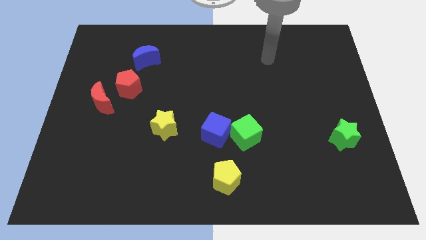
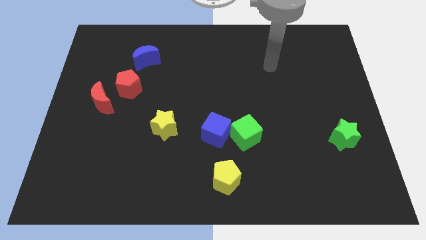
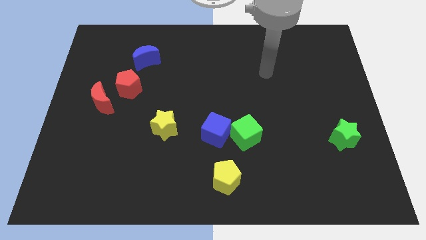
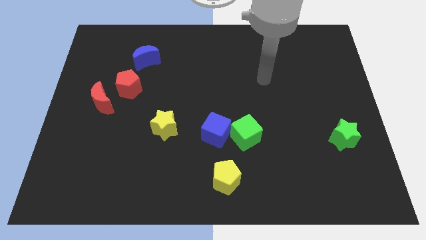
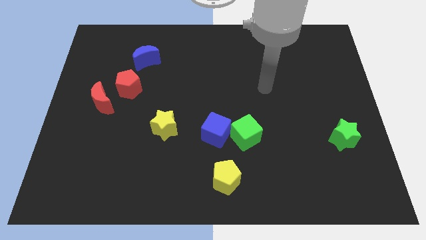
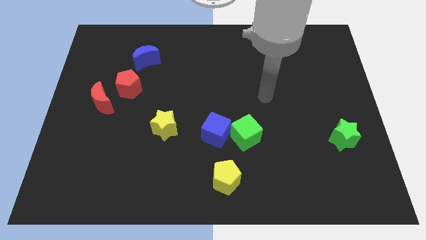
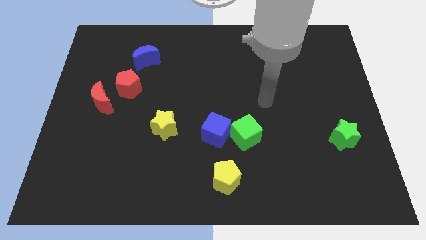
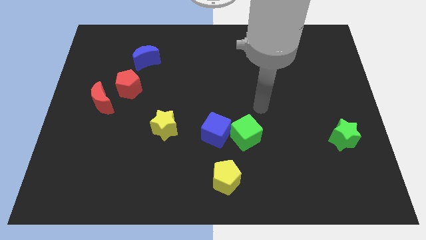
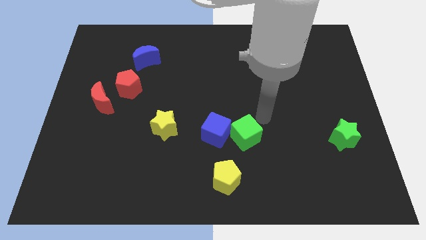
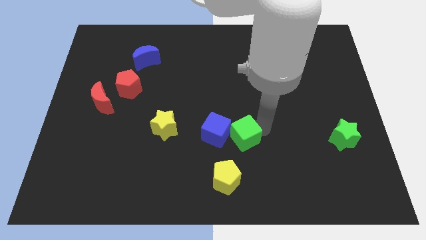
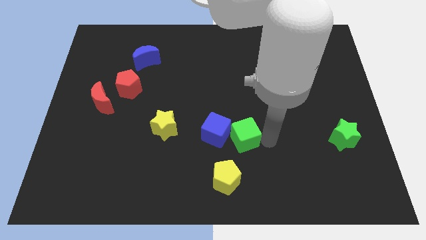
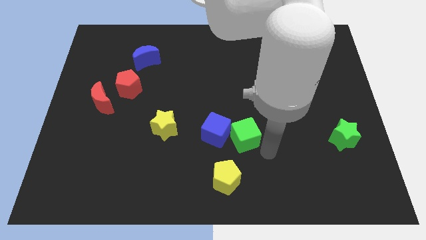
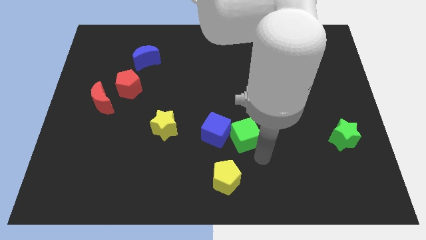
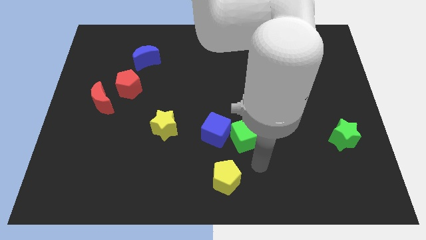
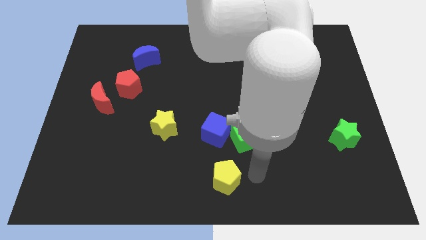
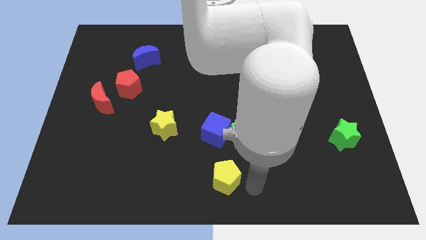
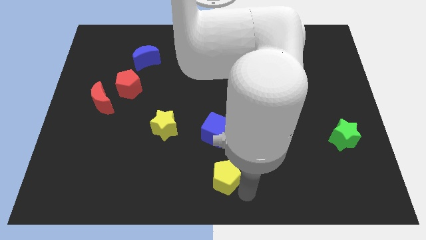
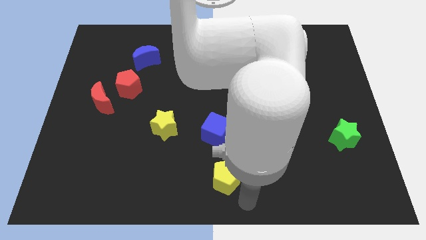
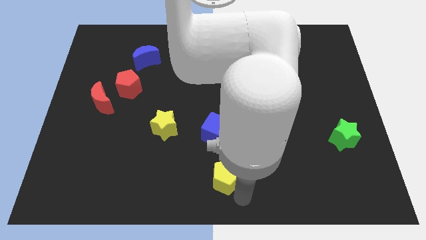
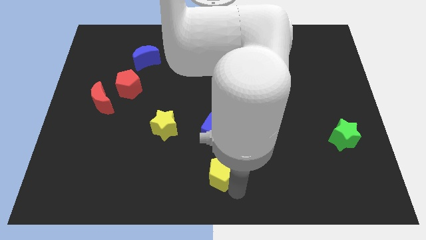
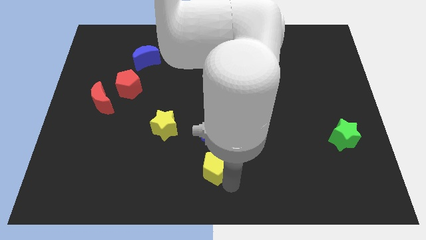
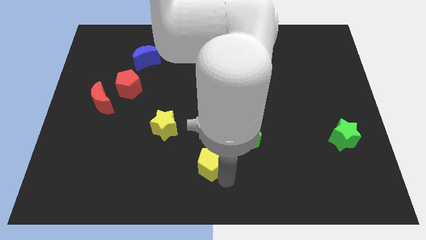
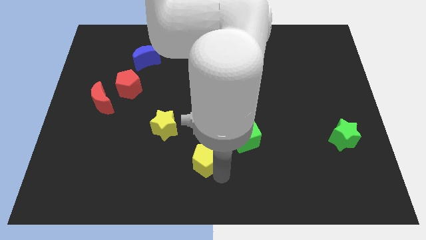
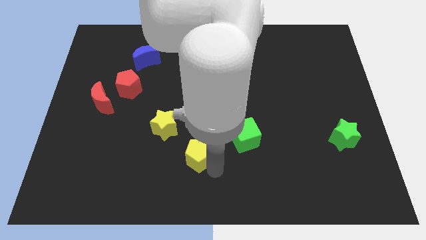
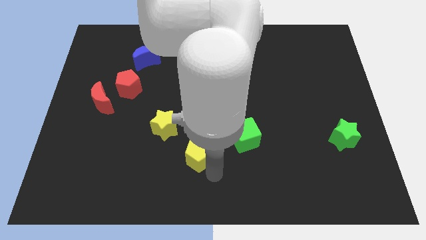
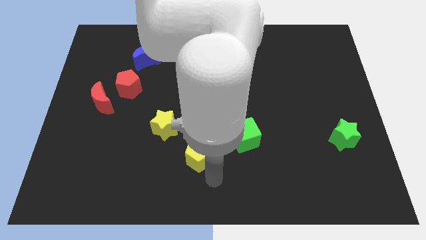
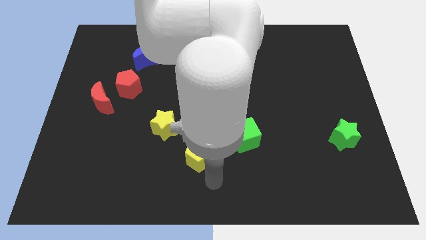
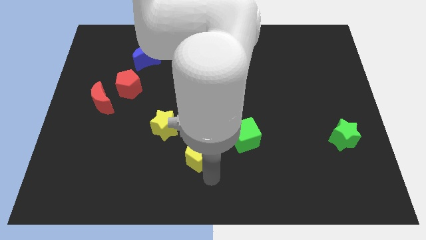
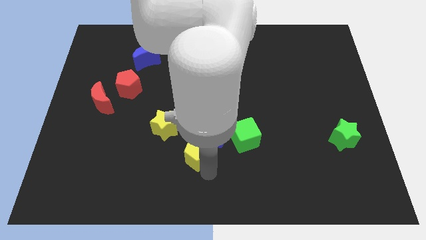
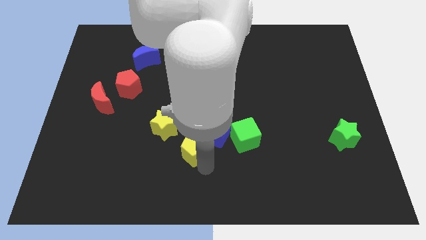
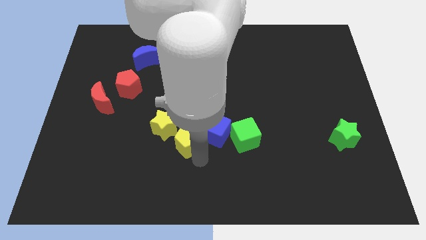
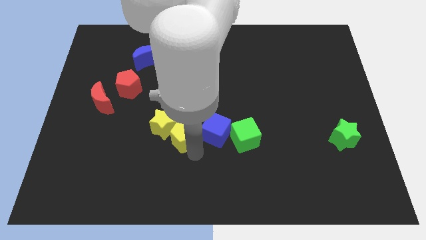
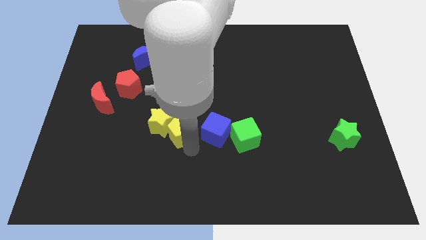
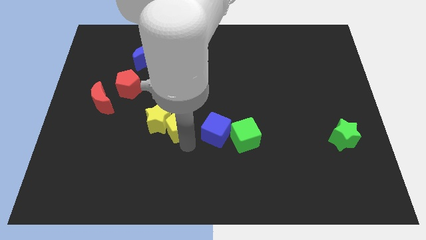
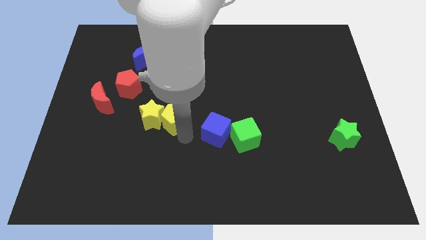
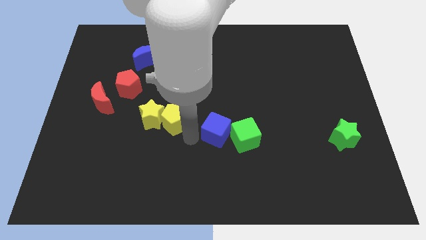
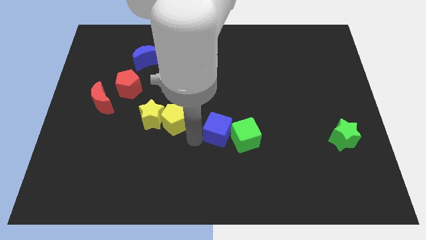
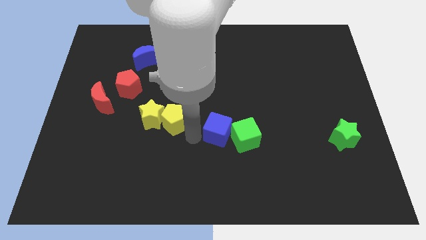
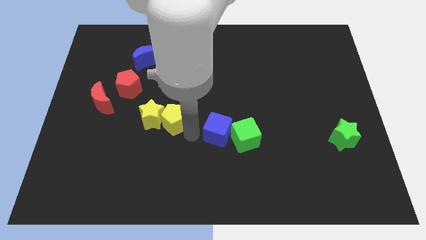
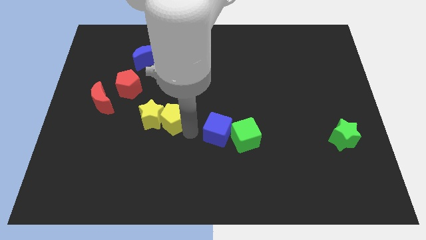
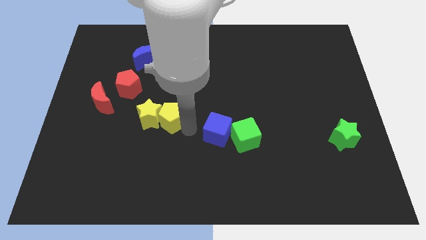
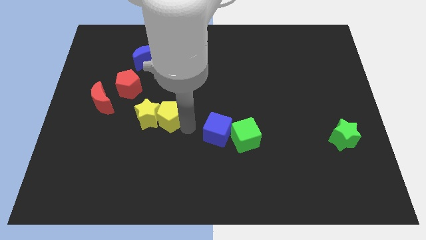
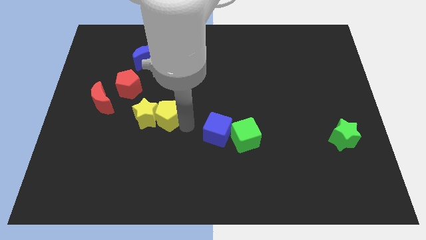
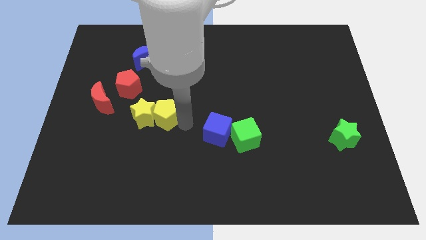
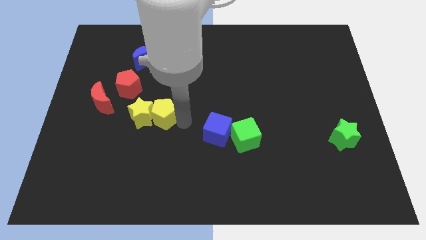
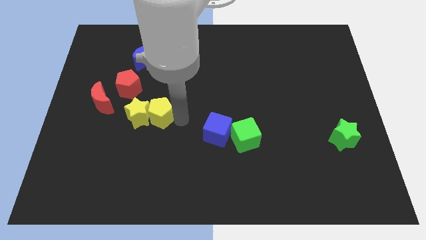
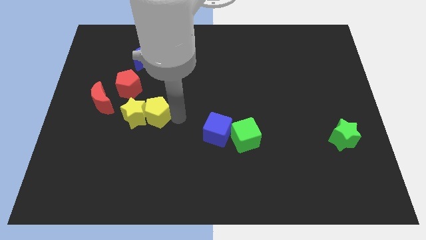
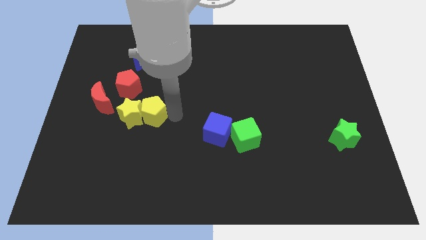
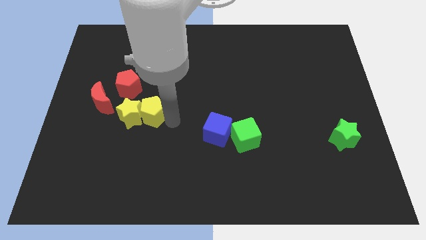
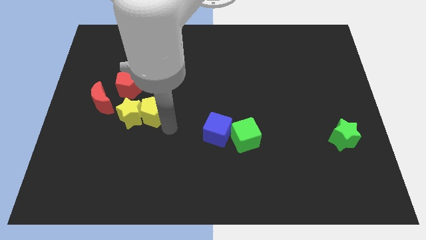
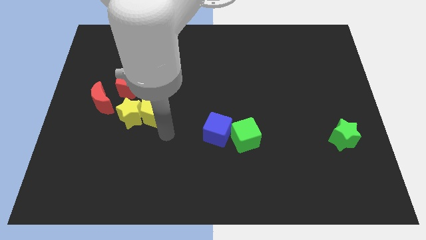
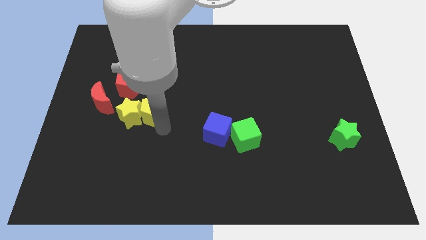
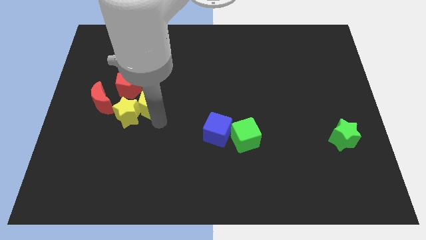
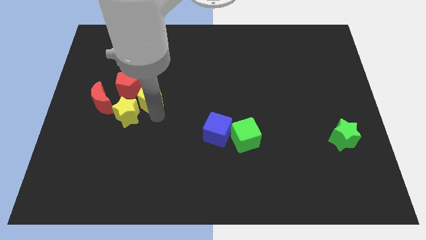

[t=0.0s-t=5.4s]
put the yellow pentagon to the bottom of the blue moon
